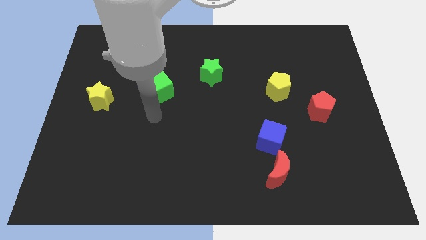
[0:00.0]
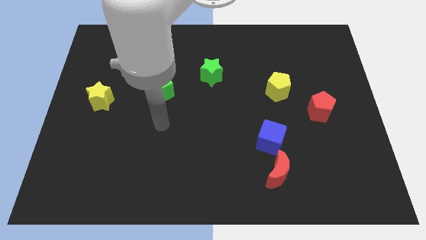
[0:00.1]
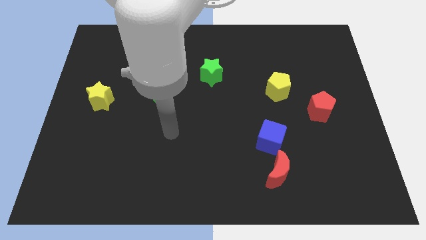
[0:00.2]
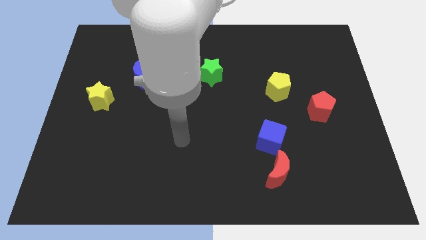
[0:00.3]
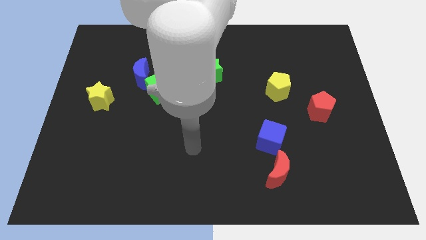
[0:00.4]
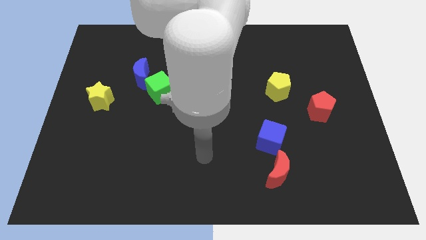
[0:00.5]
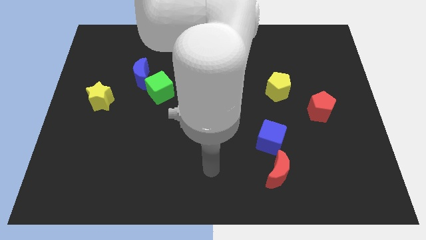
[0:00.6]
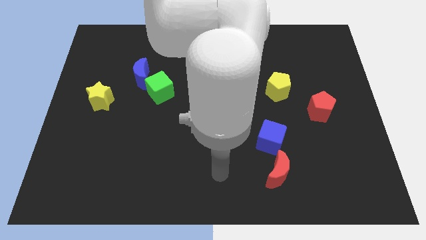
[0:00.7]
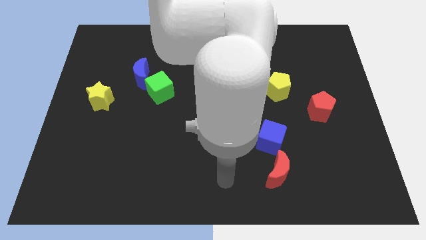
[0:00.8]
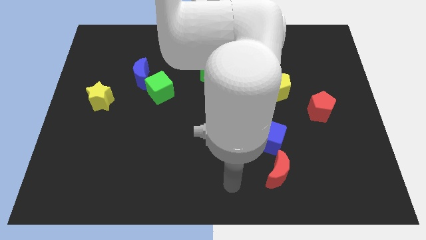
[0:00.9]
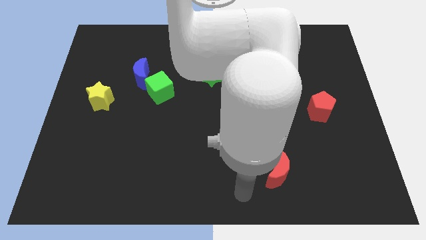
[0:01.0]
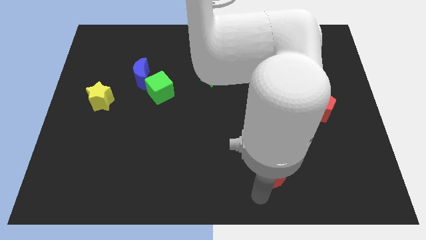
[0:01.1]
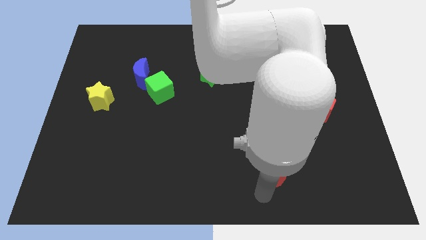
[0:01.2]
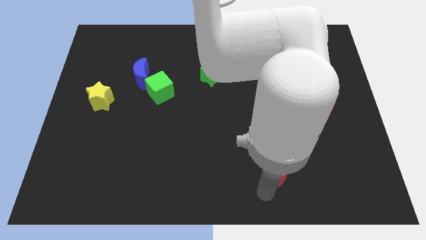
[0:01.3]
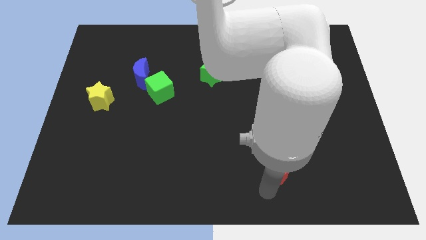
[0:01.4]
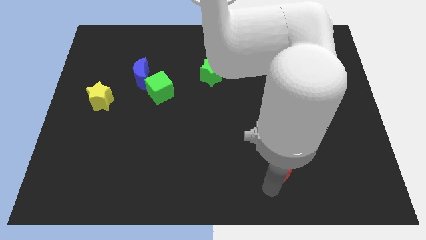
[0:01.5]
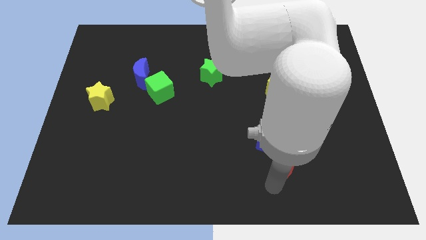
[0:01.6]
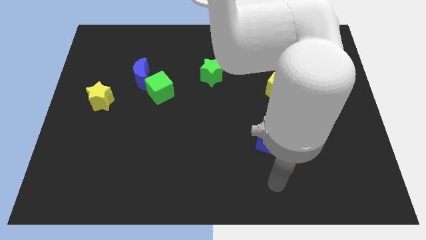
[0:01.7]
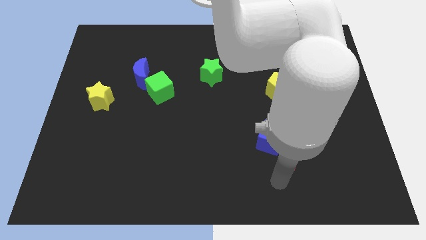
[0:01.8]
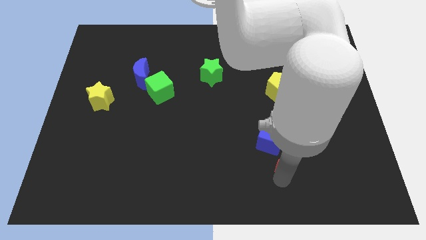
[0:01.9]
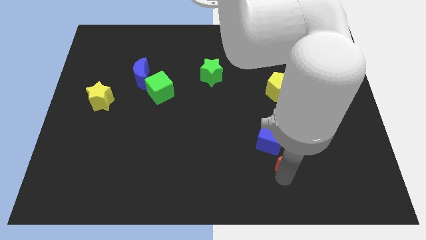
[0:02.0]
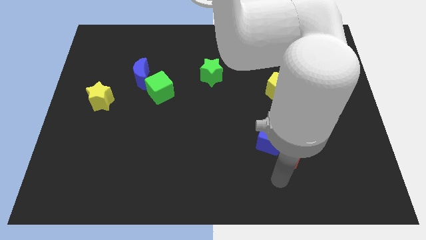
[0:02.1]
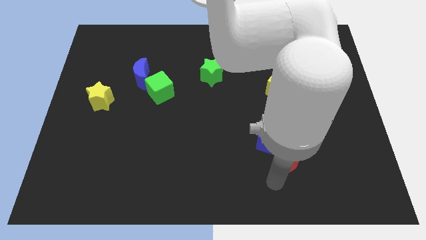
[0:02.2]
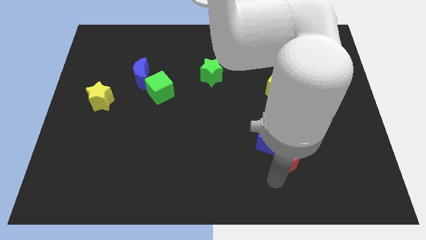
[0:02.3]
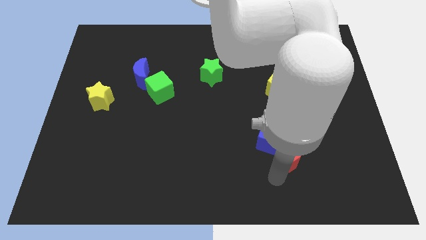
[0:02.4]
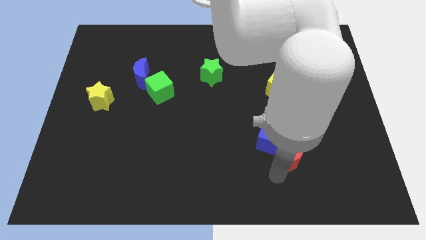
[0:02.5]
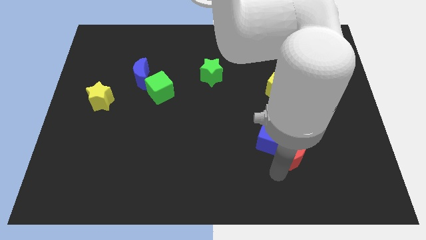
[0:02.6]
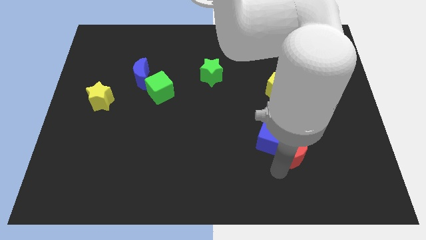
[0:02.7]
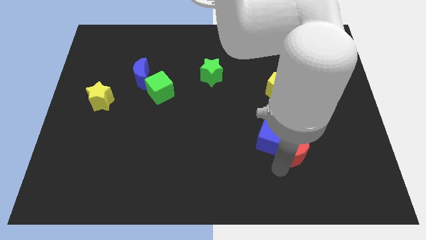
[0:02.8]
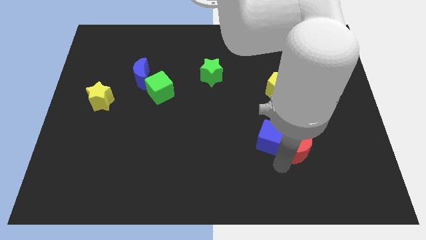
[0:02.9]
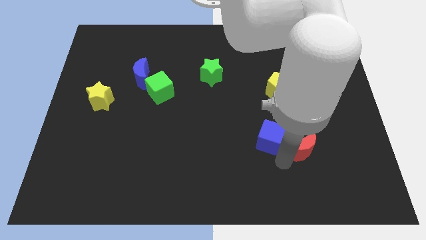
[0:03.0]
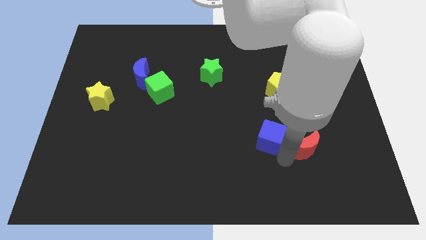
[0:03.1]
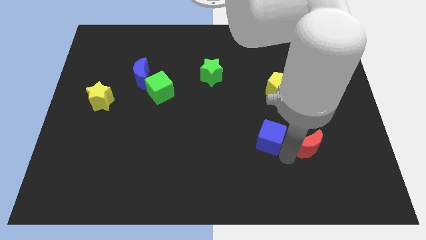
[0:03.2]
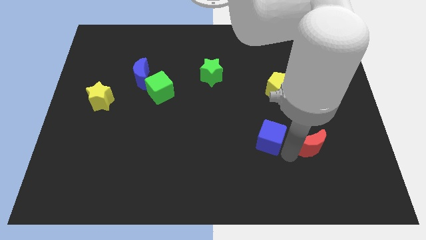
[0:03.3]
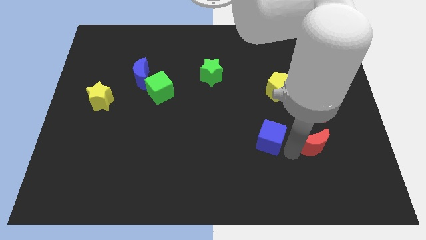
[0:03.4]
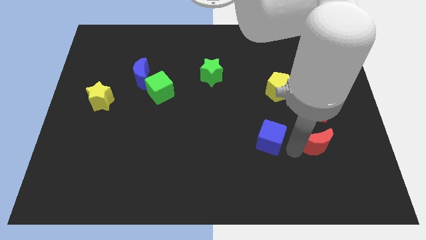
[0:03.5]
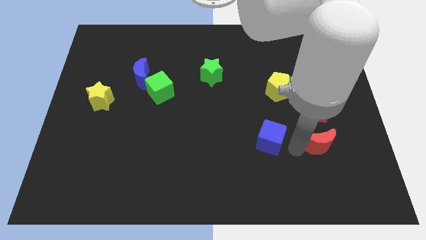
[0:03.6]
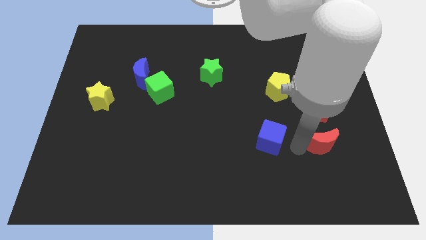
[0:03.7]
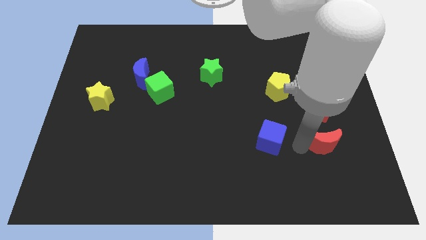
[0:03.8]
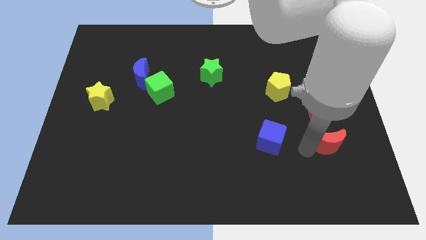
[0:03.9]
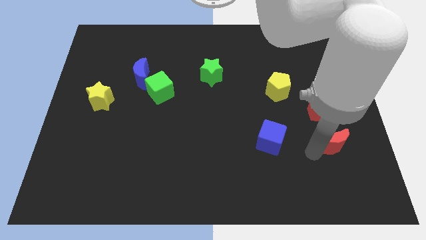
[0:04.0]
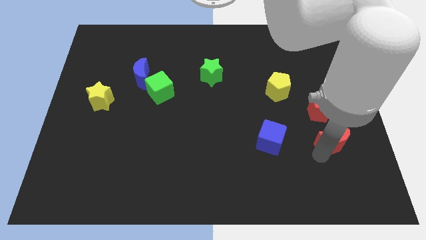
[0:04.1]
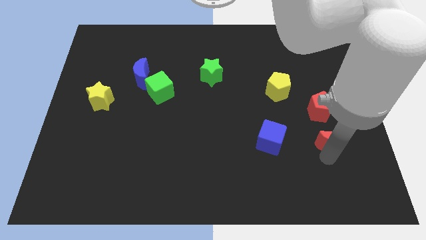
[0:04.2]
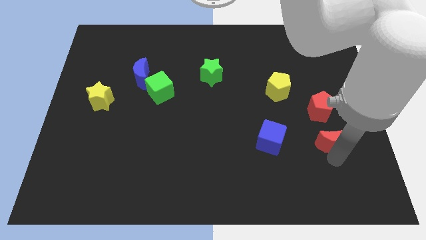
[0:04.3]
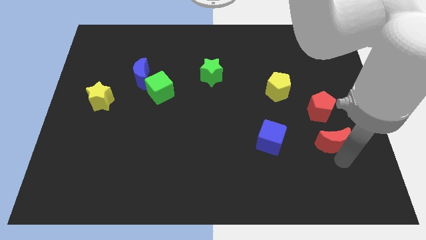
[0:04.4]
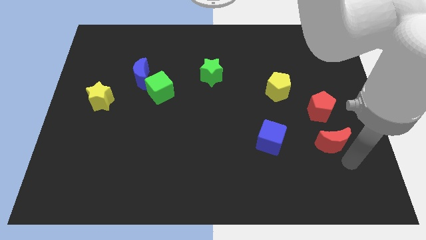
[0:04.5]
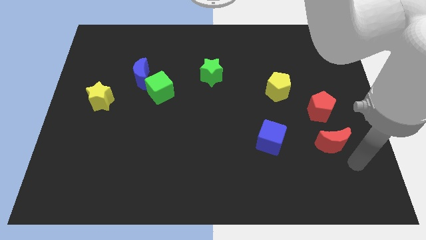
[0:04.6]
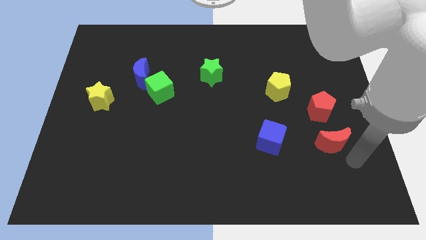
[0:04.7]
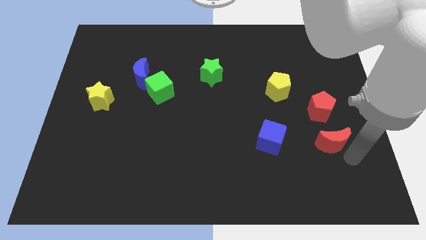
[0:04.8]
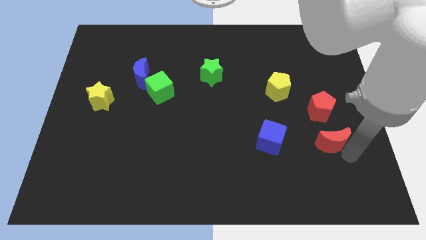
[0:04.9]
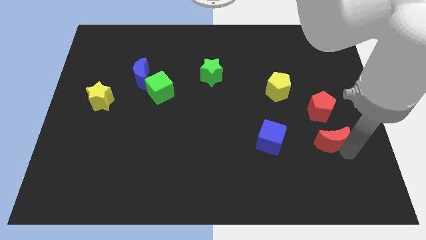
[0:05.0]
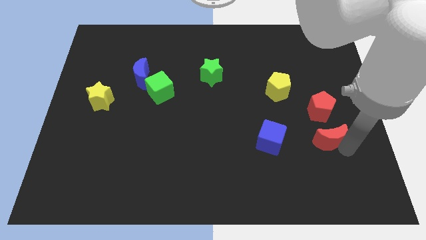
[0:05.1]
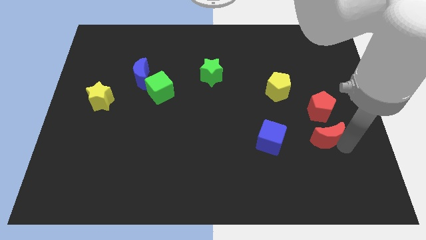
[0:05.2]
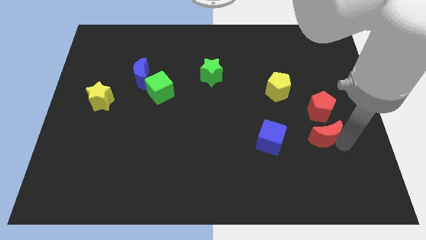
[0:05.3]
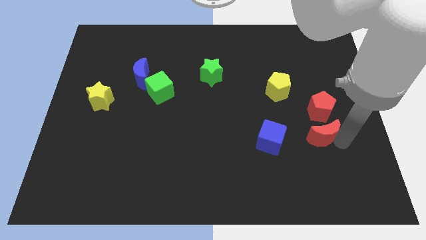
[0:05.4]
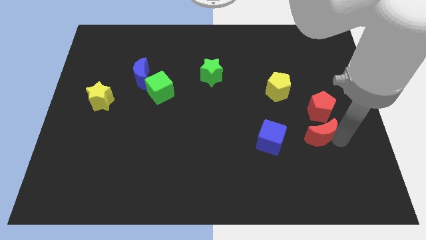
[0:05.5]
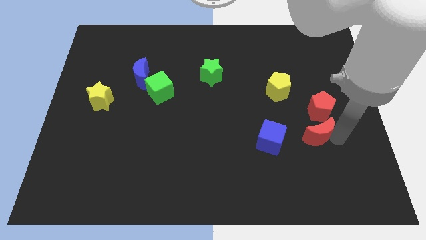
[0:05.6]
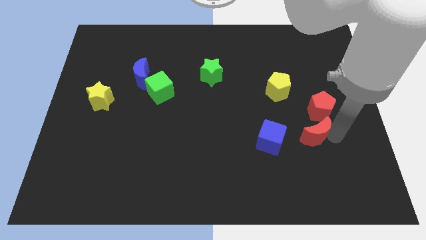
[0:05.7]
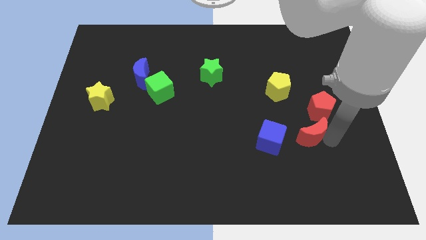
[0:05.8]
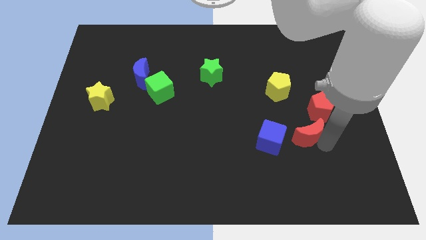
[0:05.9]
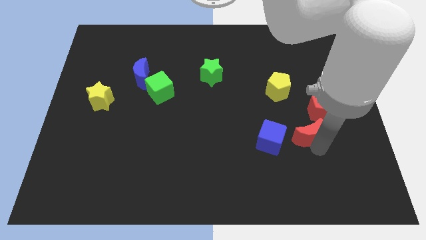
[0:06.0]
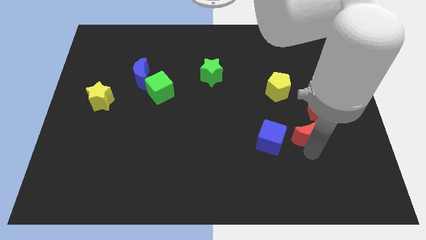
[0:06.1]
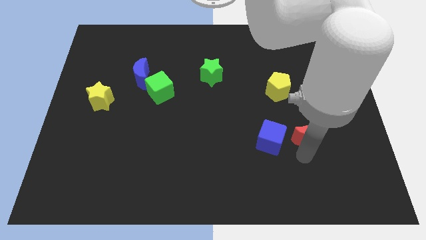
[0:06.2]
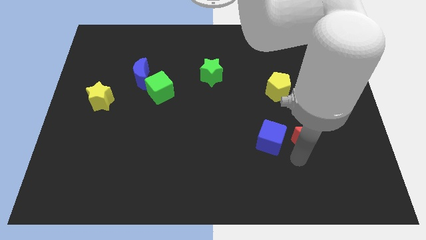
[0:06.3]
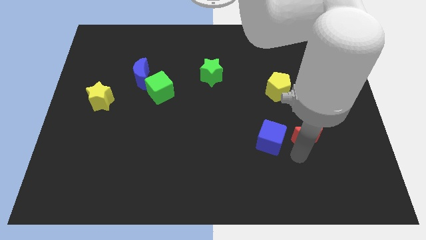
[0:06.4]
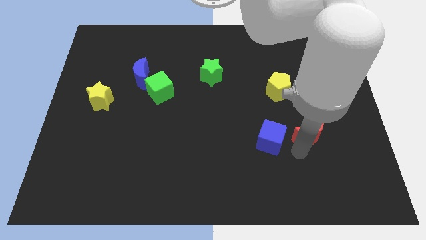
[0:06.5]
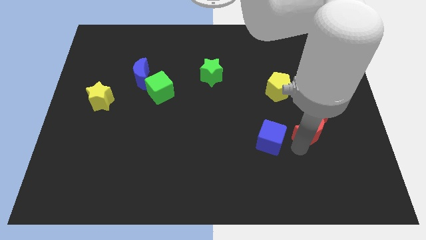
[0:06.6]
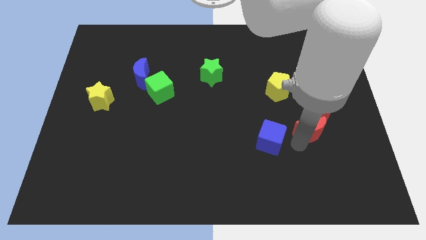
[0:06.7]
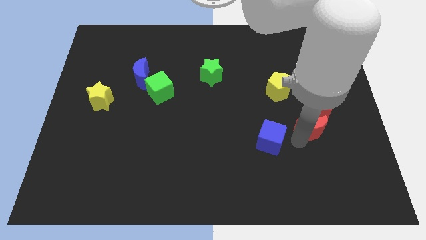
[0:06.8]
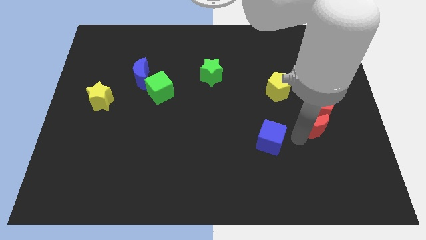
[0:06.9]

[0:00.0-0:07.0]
slide the red moon close to the red pentagon
